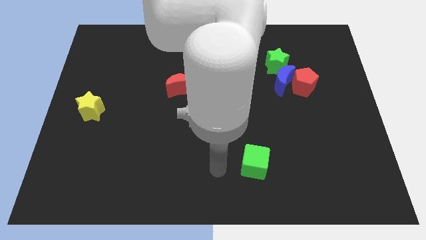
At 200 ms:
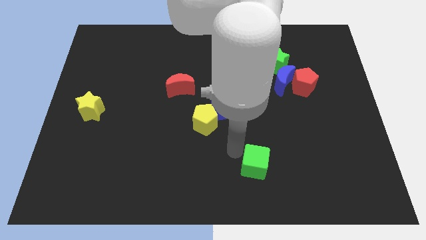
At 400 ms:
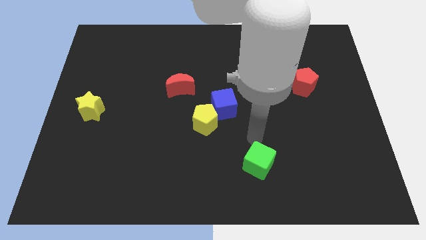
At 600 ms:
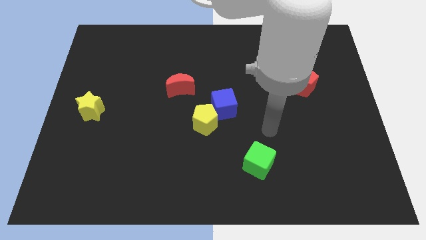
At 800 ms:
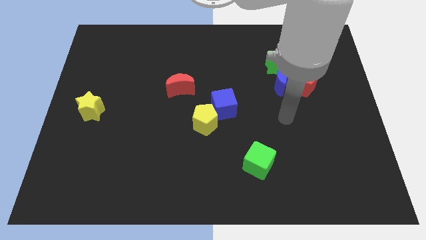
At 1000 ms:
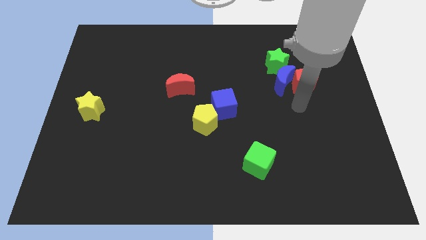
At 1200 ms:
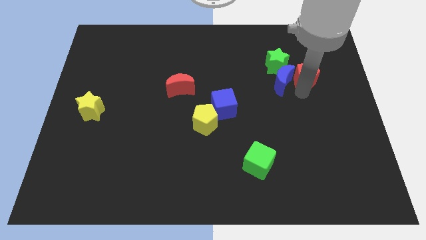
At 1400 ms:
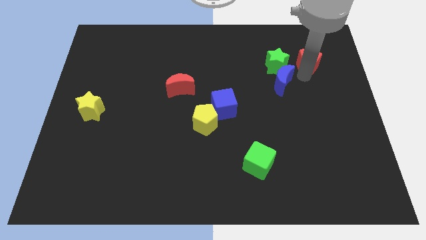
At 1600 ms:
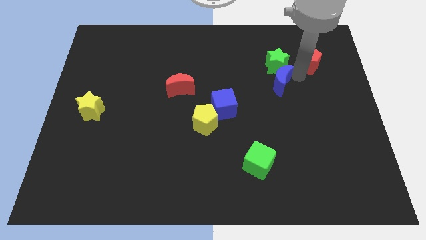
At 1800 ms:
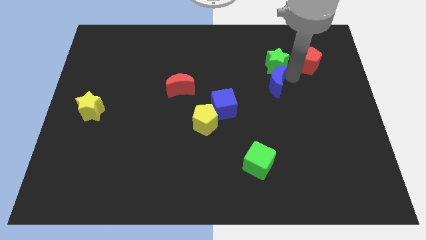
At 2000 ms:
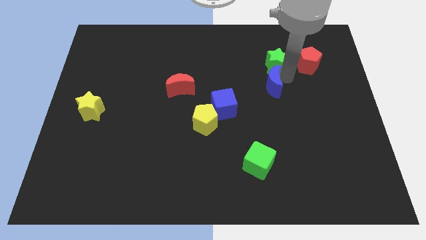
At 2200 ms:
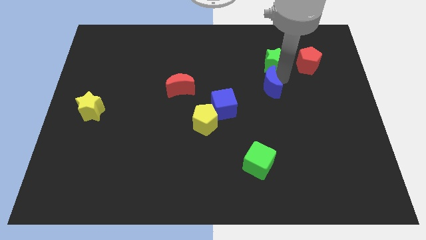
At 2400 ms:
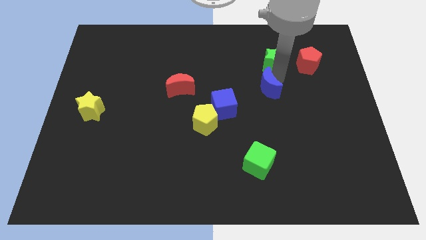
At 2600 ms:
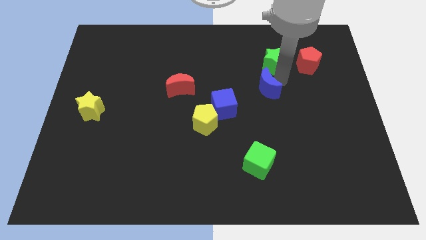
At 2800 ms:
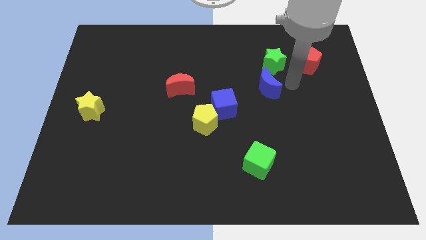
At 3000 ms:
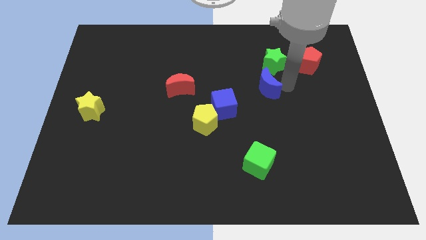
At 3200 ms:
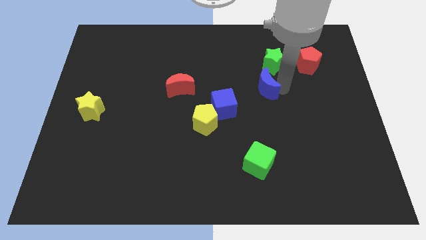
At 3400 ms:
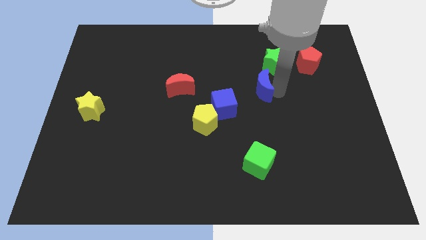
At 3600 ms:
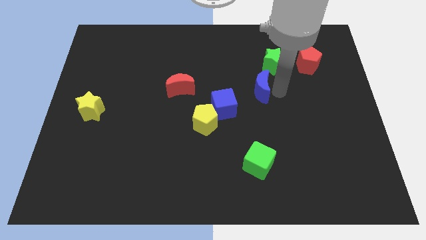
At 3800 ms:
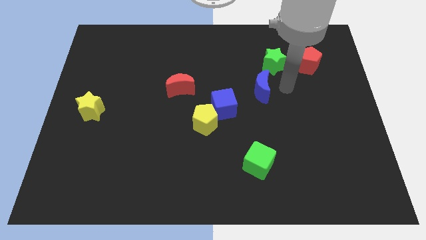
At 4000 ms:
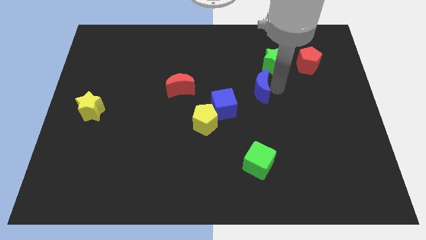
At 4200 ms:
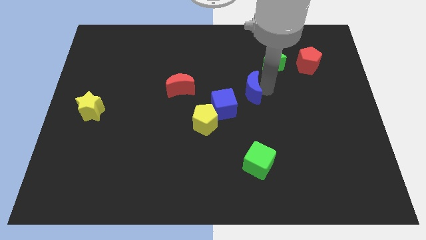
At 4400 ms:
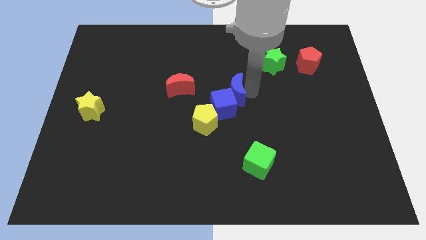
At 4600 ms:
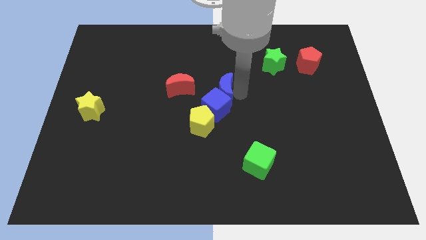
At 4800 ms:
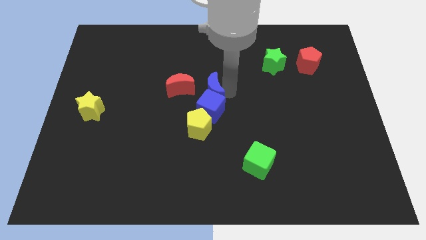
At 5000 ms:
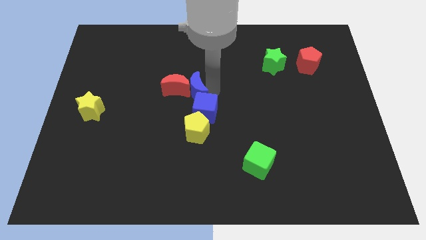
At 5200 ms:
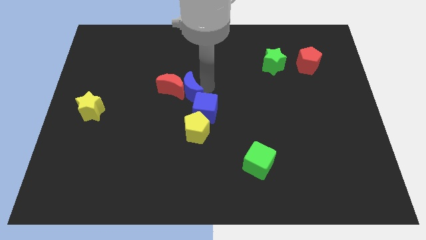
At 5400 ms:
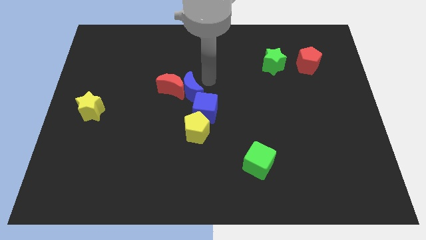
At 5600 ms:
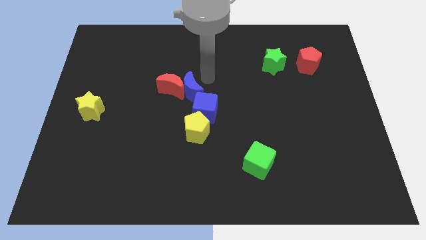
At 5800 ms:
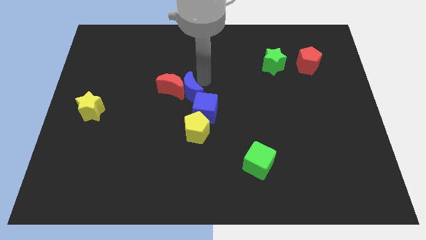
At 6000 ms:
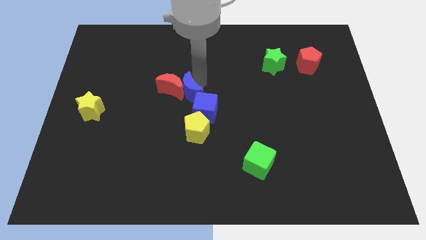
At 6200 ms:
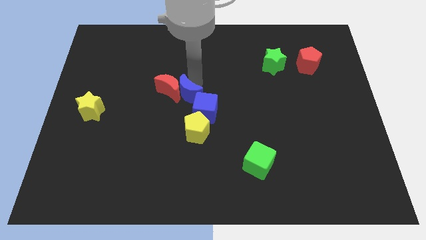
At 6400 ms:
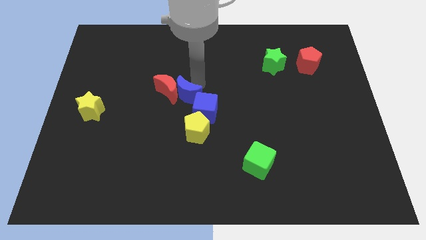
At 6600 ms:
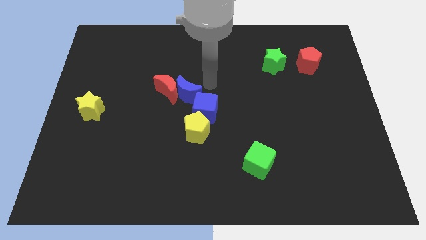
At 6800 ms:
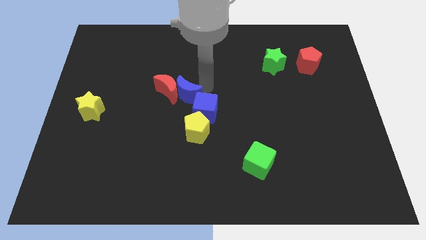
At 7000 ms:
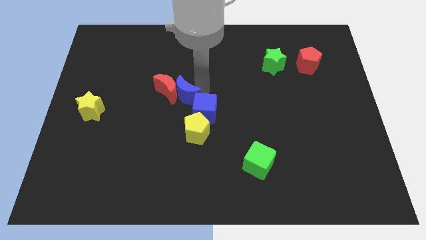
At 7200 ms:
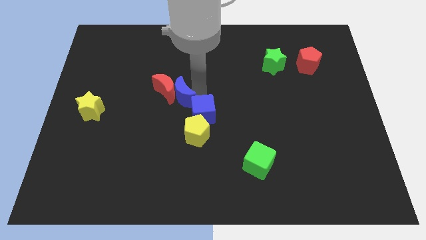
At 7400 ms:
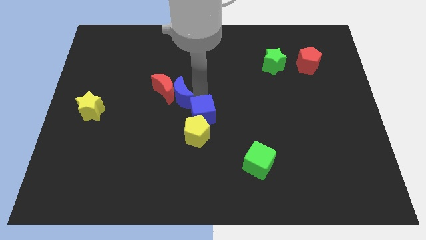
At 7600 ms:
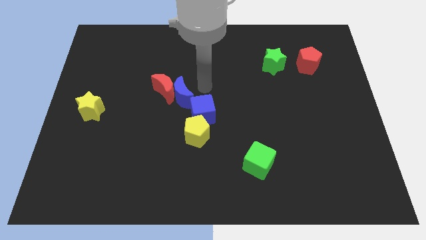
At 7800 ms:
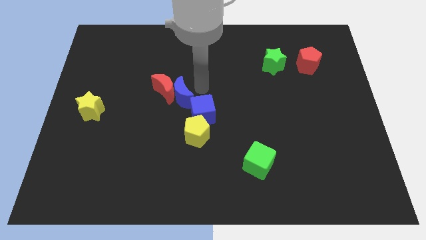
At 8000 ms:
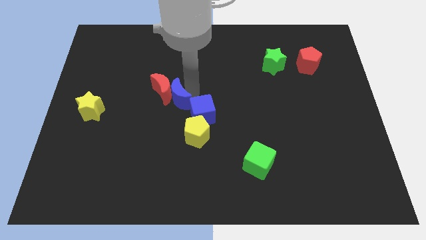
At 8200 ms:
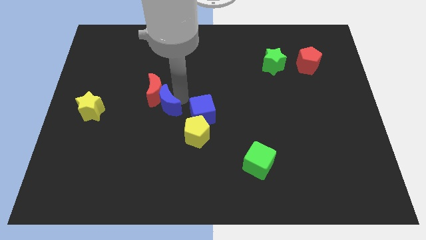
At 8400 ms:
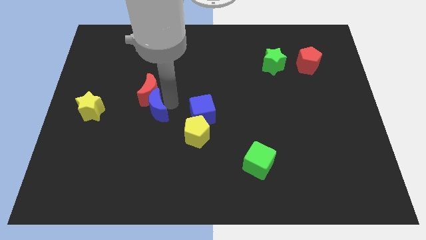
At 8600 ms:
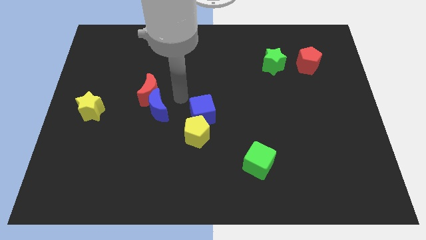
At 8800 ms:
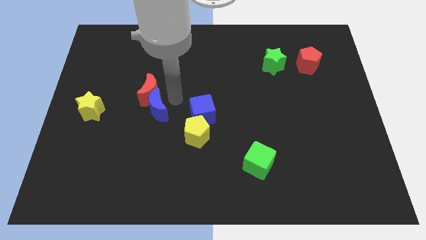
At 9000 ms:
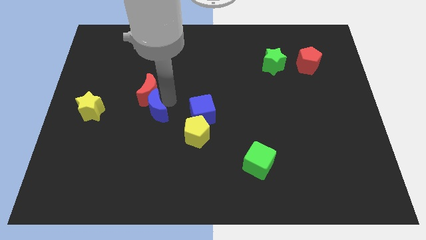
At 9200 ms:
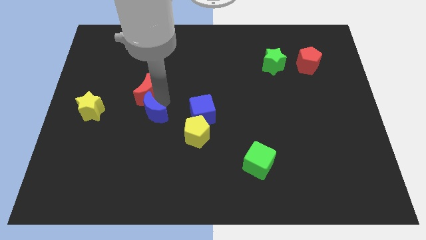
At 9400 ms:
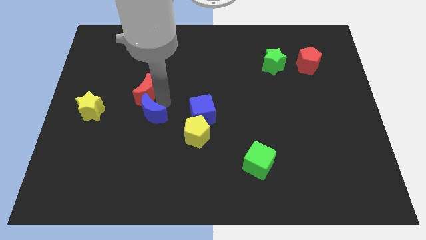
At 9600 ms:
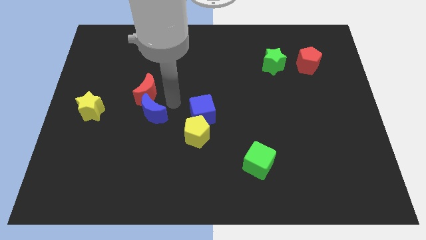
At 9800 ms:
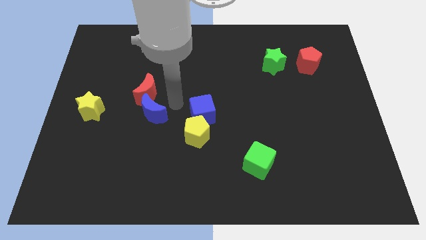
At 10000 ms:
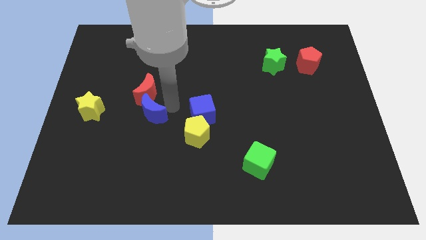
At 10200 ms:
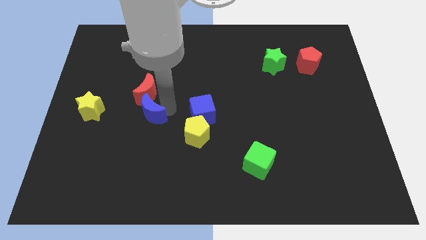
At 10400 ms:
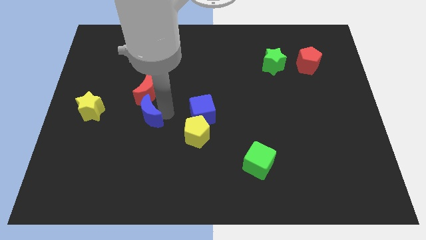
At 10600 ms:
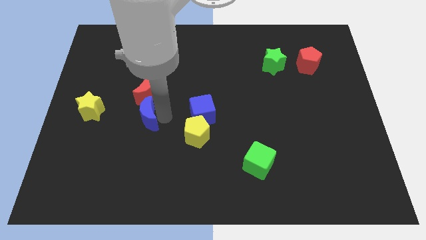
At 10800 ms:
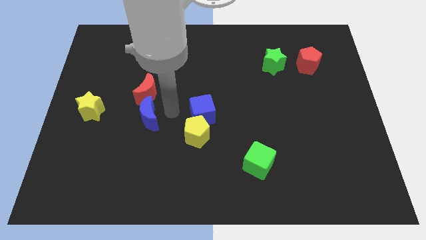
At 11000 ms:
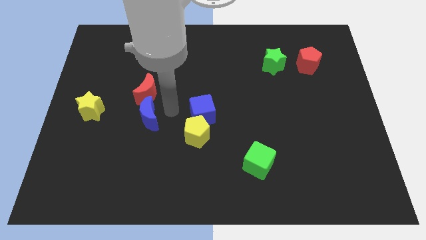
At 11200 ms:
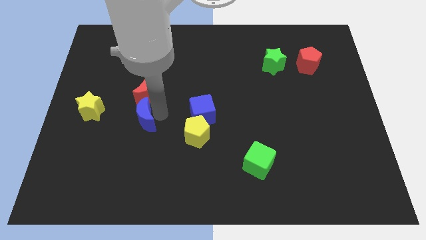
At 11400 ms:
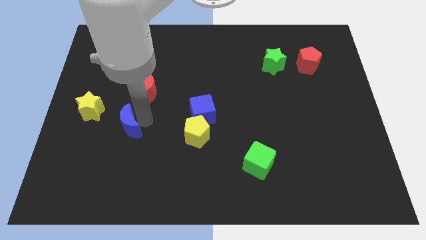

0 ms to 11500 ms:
move the blue moon diagonally down and to the right of the yellow star

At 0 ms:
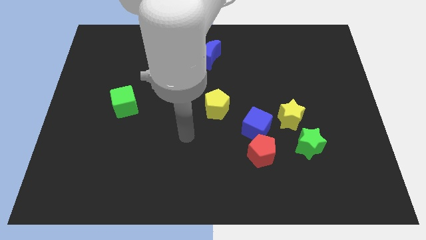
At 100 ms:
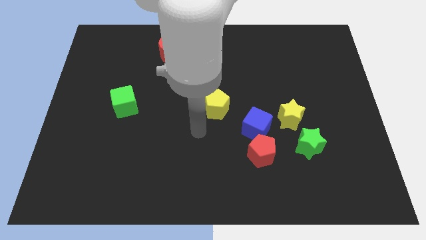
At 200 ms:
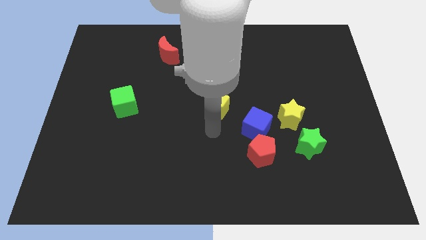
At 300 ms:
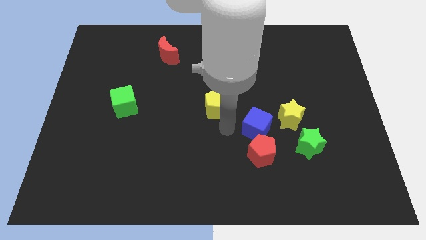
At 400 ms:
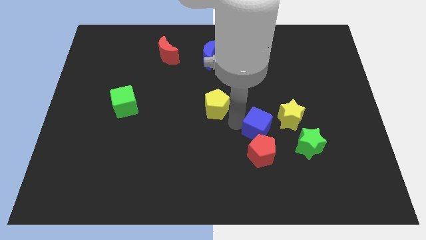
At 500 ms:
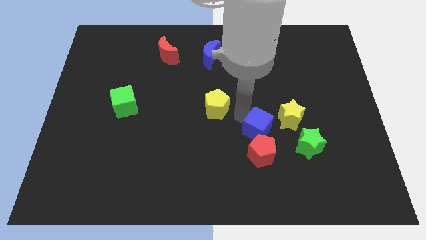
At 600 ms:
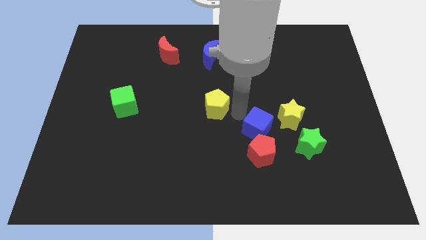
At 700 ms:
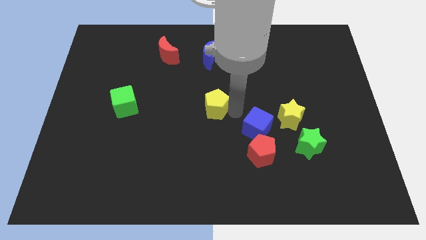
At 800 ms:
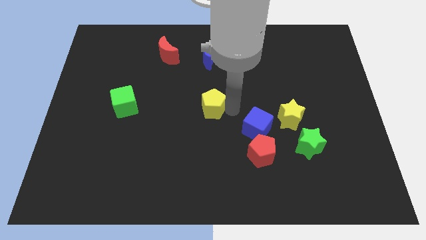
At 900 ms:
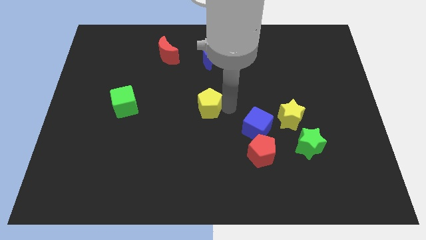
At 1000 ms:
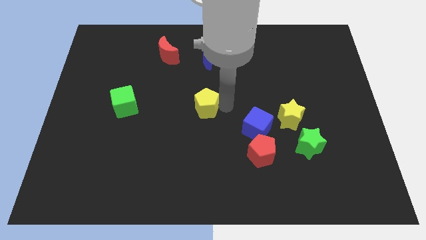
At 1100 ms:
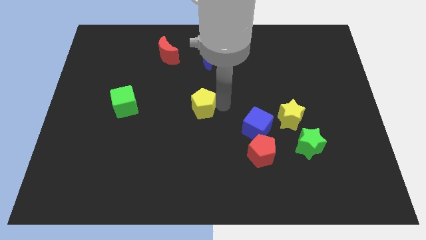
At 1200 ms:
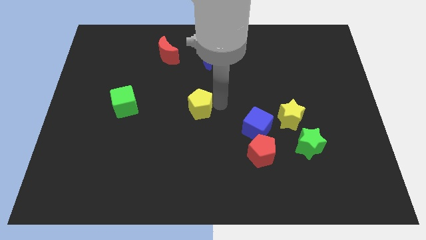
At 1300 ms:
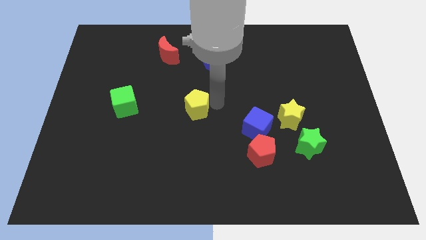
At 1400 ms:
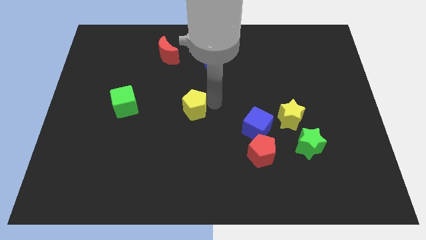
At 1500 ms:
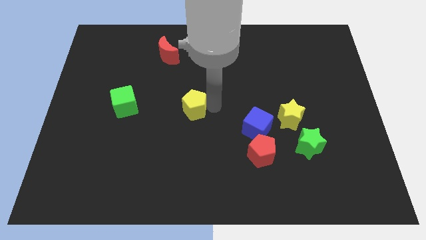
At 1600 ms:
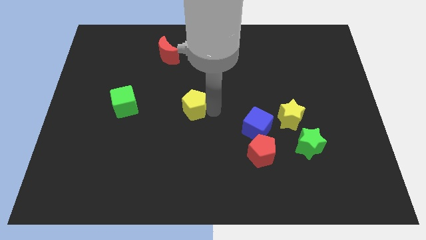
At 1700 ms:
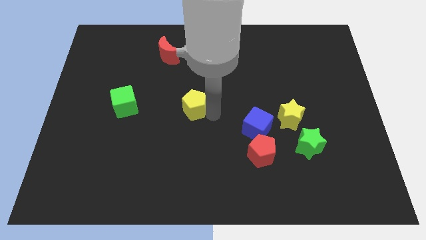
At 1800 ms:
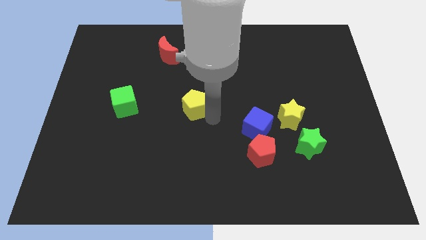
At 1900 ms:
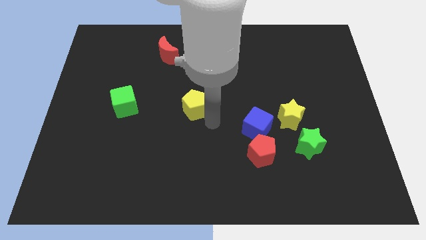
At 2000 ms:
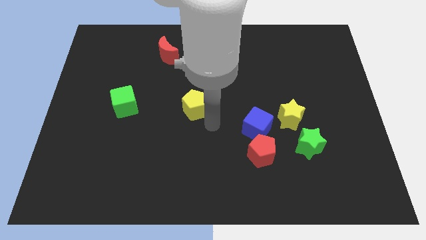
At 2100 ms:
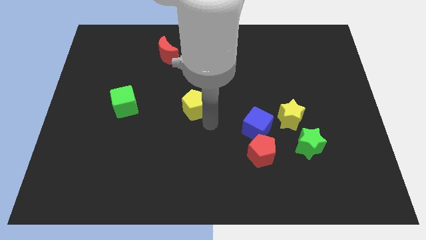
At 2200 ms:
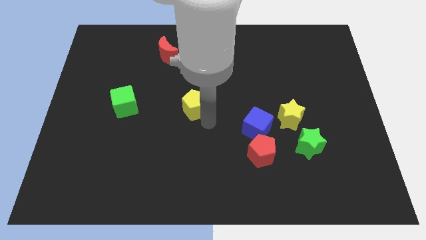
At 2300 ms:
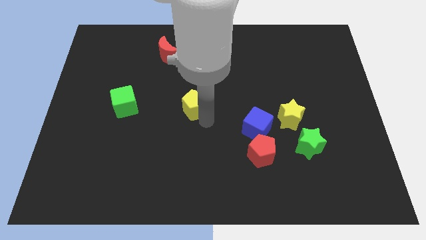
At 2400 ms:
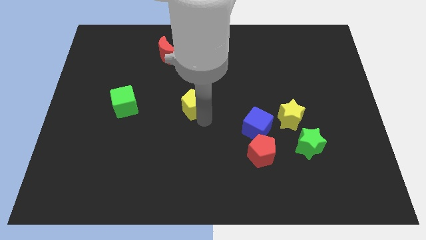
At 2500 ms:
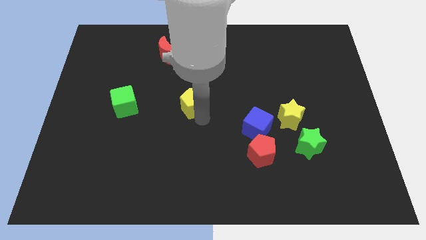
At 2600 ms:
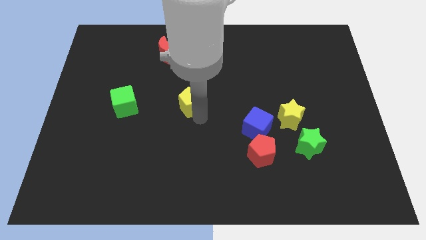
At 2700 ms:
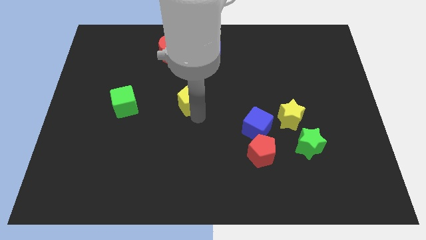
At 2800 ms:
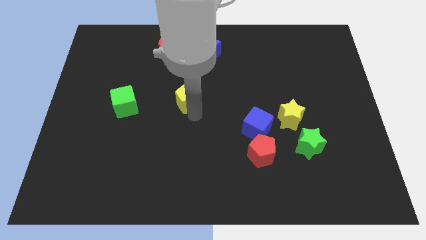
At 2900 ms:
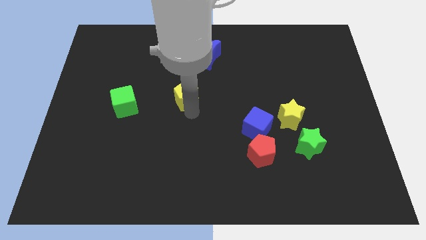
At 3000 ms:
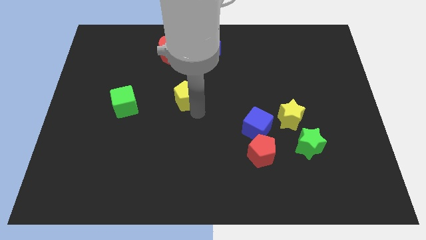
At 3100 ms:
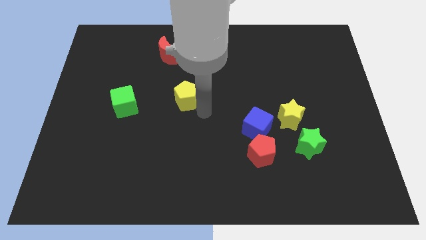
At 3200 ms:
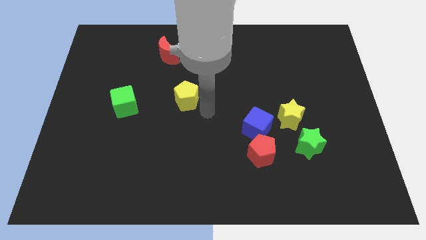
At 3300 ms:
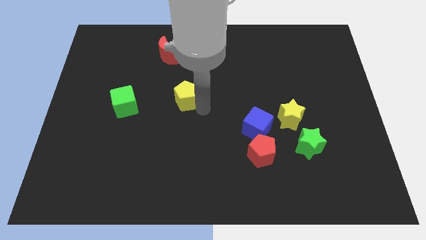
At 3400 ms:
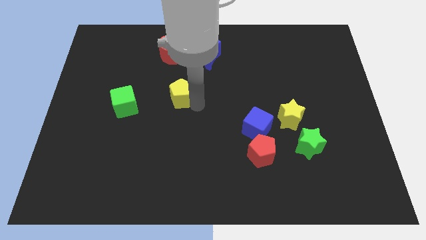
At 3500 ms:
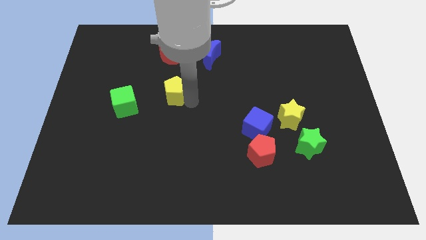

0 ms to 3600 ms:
slide the yellow pentagon to the bottom of the red moon
